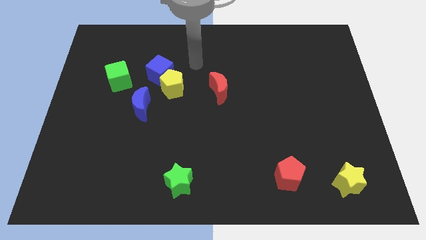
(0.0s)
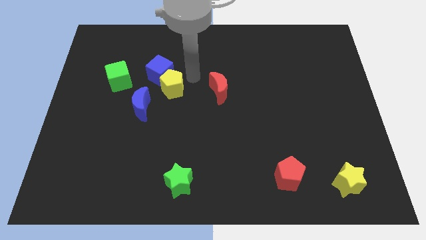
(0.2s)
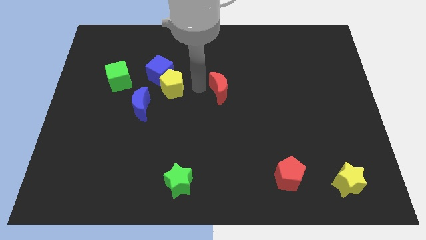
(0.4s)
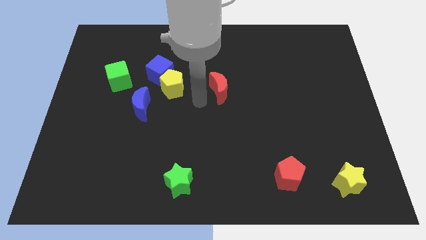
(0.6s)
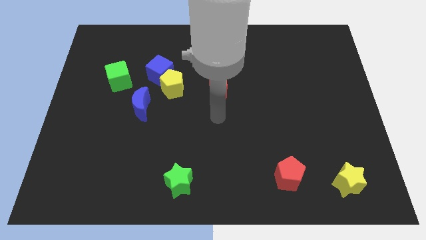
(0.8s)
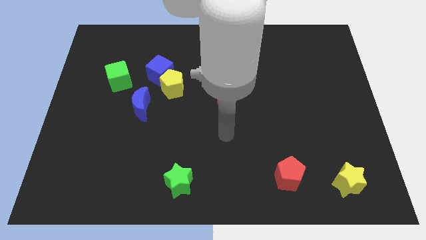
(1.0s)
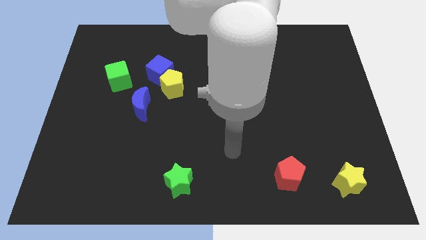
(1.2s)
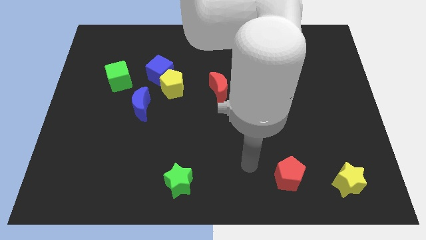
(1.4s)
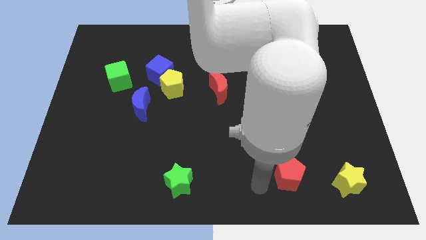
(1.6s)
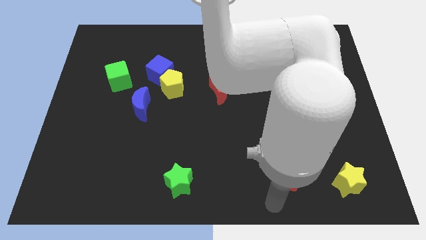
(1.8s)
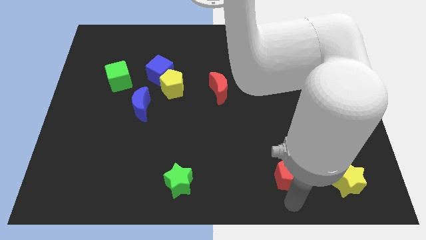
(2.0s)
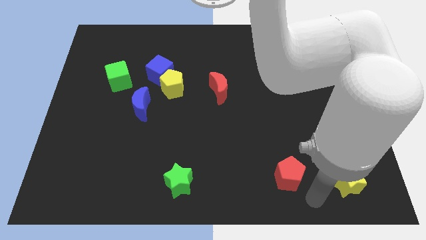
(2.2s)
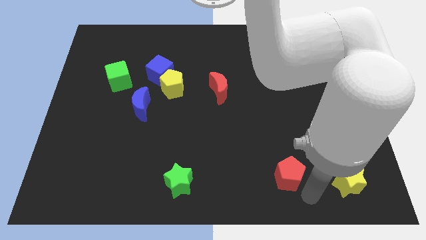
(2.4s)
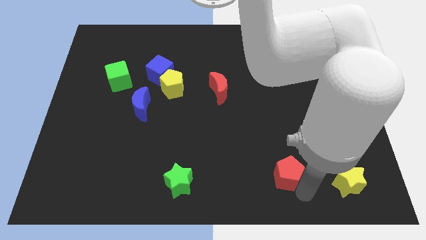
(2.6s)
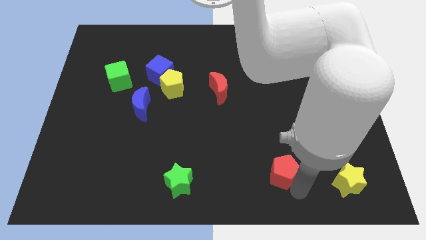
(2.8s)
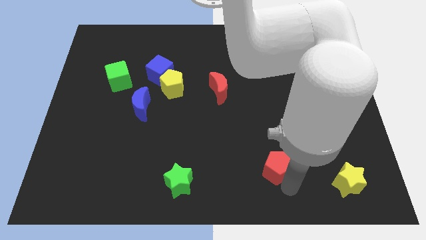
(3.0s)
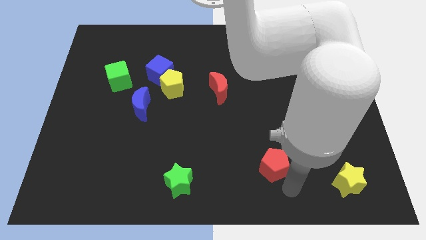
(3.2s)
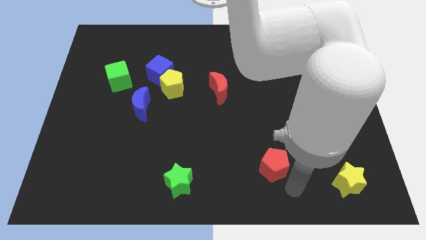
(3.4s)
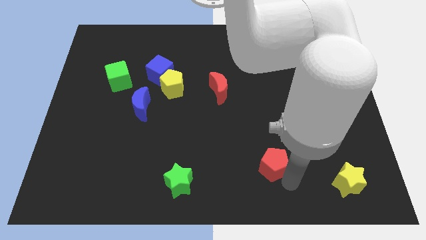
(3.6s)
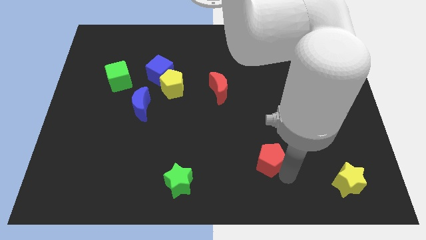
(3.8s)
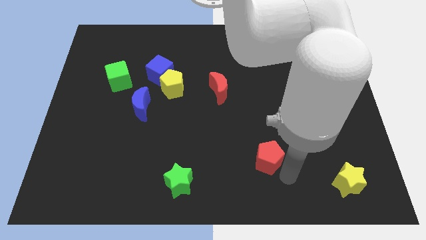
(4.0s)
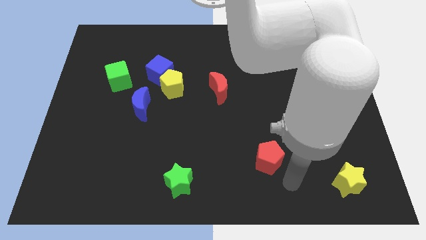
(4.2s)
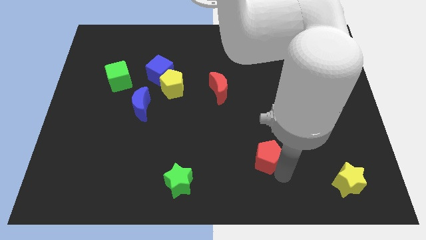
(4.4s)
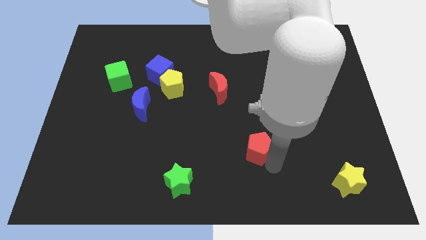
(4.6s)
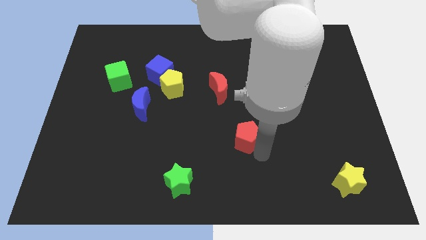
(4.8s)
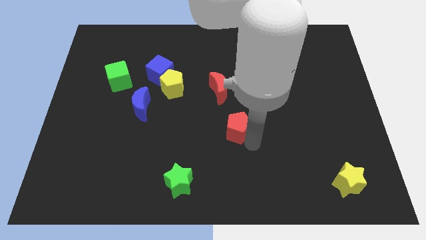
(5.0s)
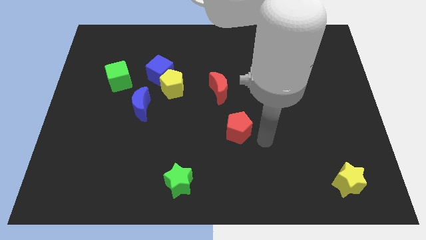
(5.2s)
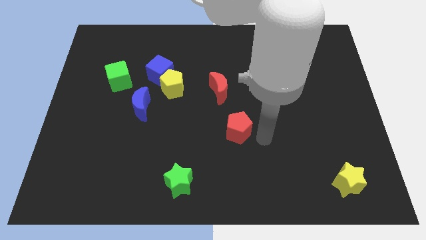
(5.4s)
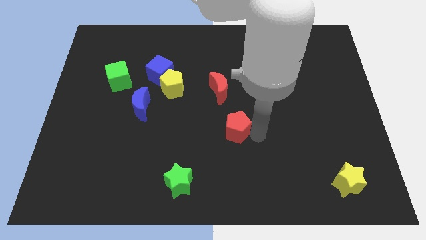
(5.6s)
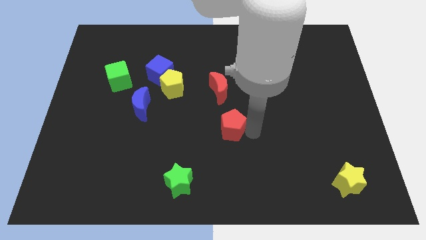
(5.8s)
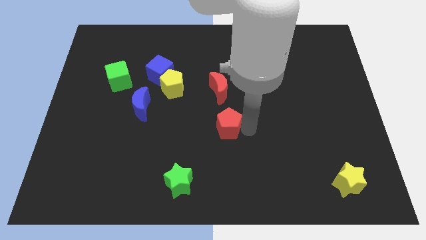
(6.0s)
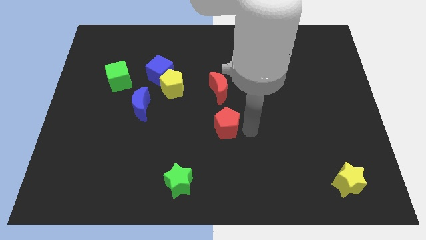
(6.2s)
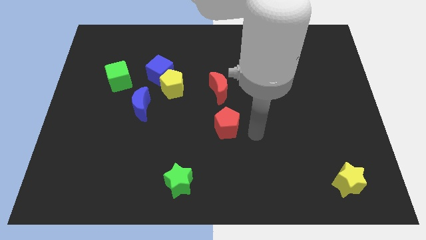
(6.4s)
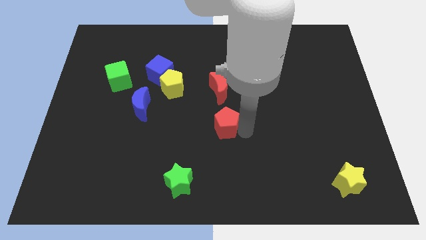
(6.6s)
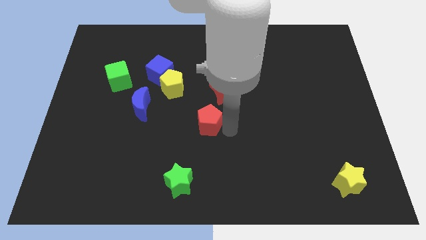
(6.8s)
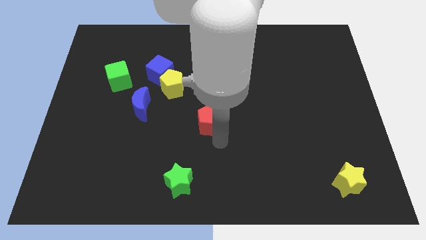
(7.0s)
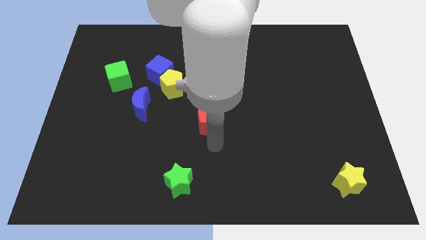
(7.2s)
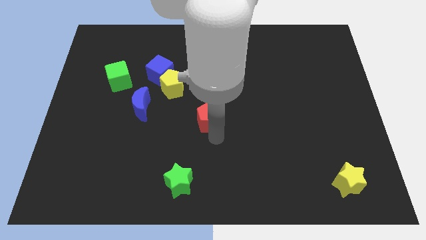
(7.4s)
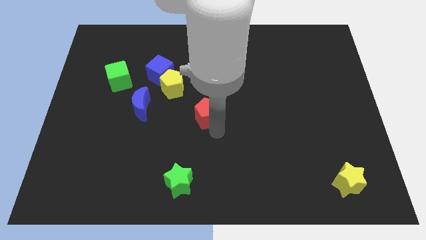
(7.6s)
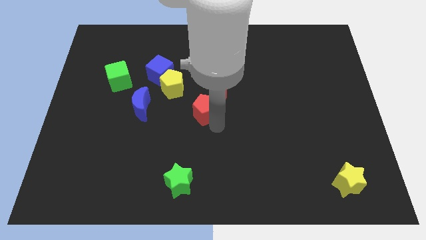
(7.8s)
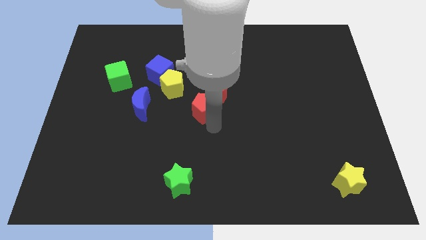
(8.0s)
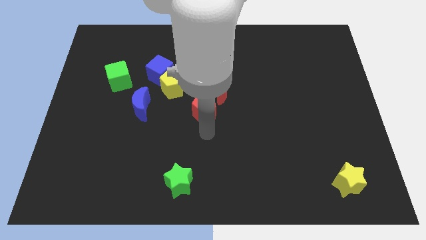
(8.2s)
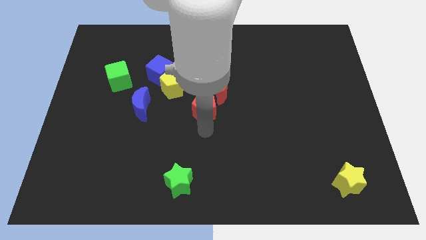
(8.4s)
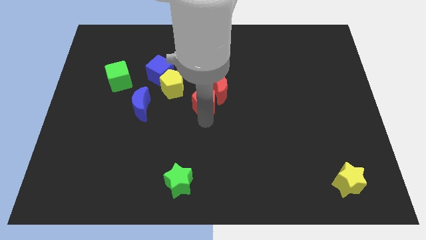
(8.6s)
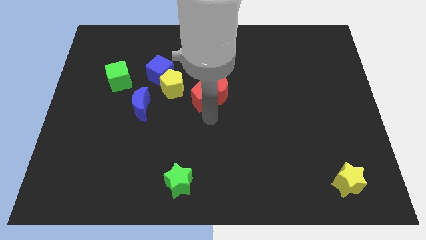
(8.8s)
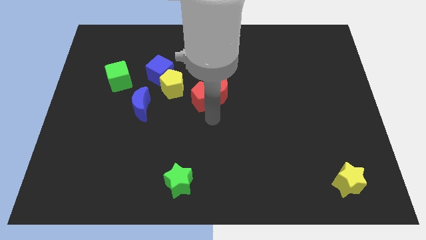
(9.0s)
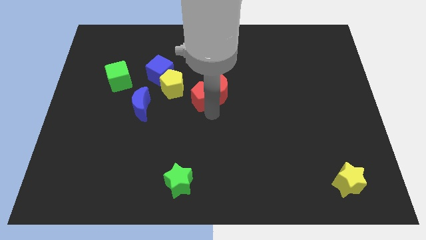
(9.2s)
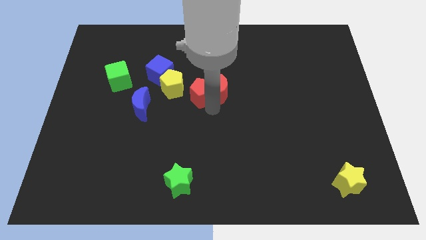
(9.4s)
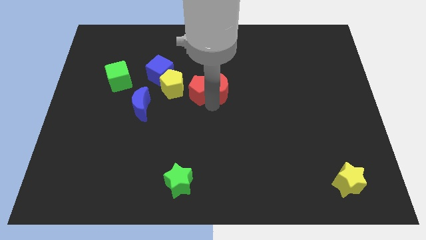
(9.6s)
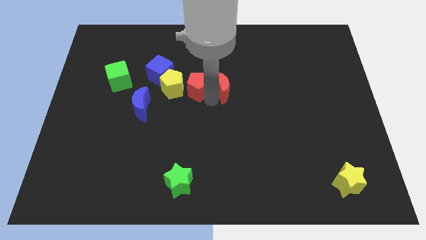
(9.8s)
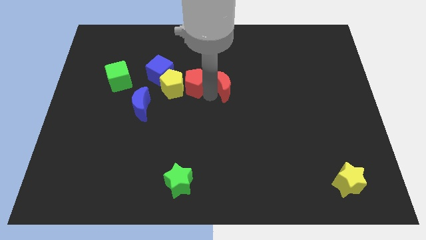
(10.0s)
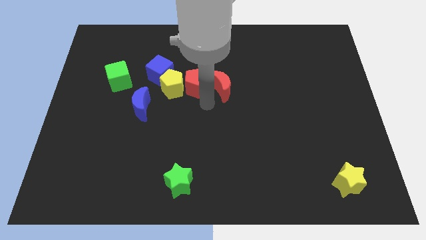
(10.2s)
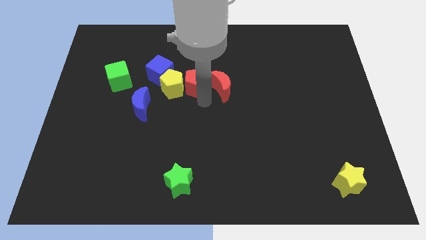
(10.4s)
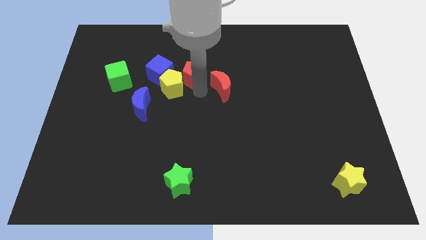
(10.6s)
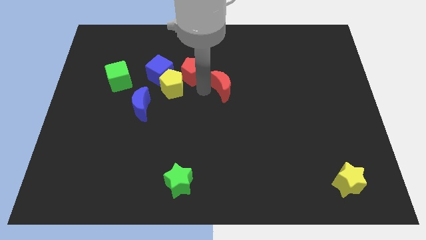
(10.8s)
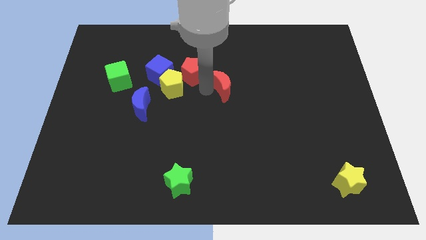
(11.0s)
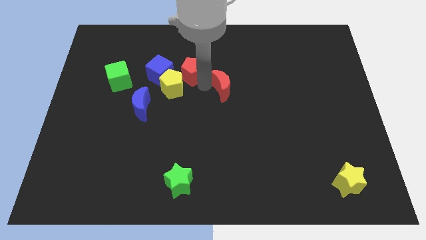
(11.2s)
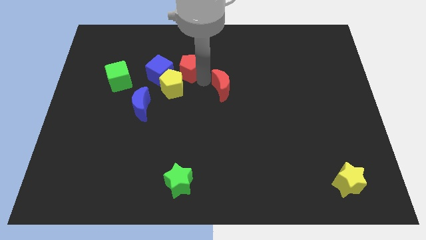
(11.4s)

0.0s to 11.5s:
slide the red pentagon diagonally up and to the right of the blue cube

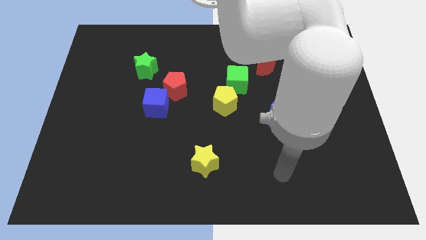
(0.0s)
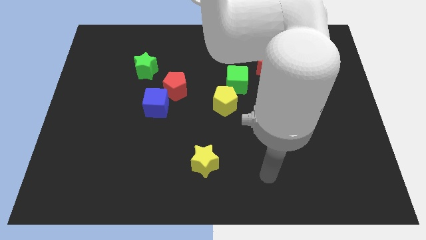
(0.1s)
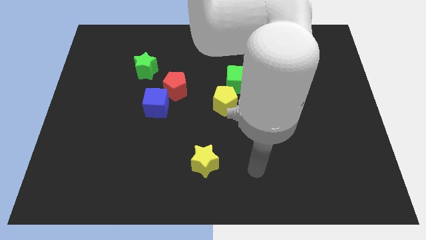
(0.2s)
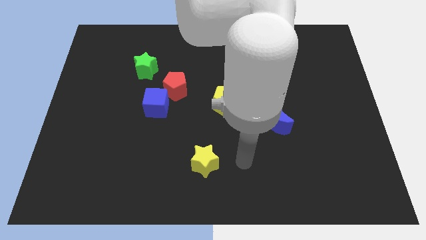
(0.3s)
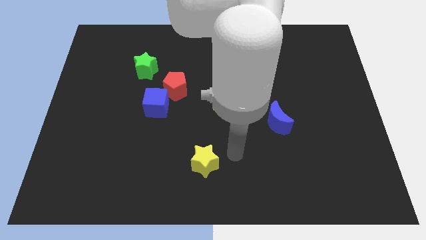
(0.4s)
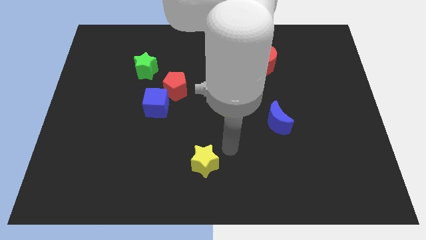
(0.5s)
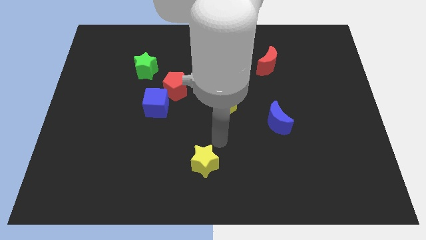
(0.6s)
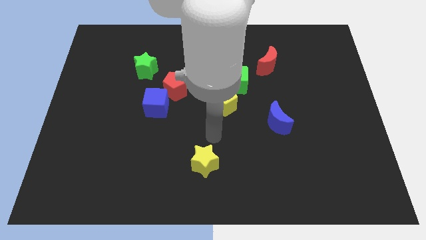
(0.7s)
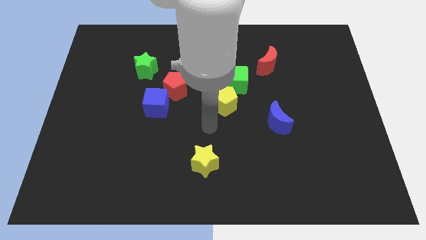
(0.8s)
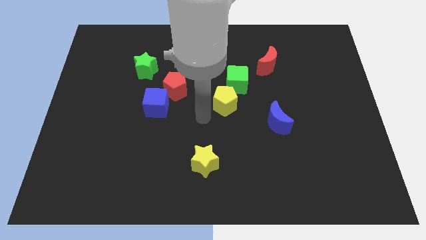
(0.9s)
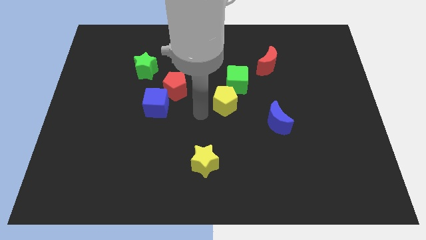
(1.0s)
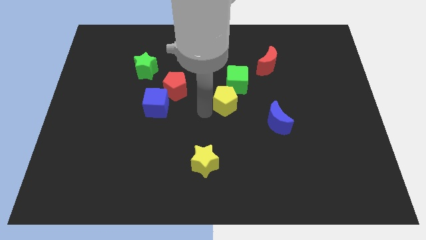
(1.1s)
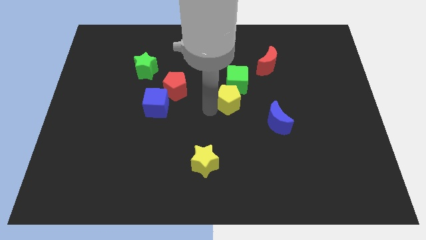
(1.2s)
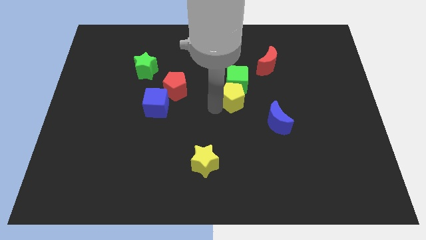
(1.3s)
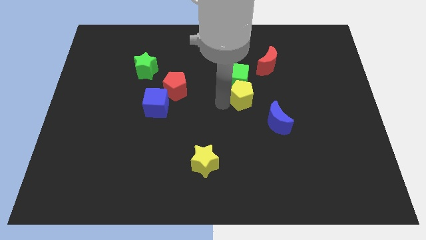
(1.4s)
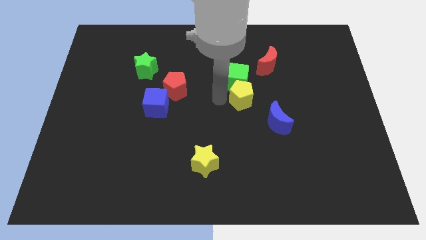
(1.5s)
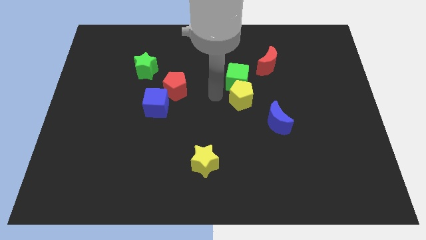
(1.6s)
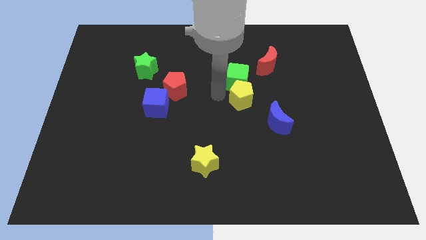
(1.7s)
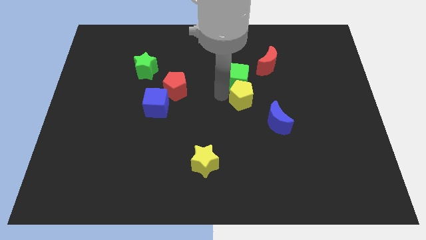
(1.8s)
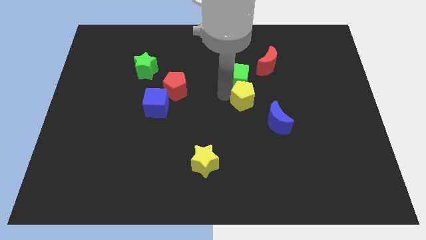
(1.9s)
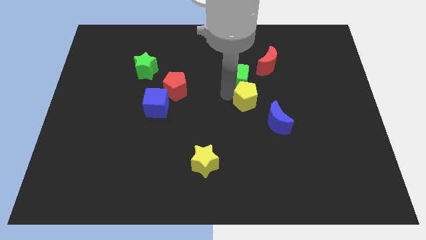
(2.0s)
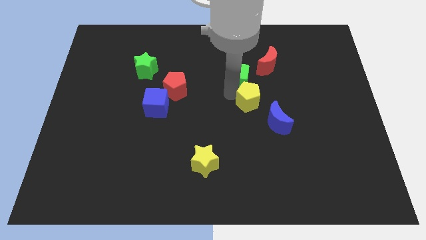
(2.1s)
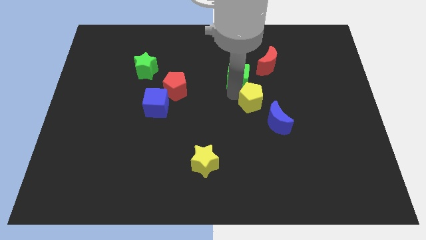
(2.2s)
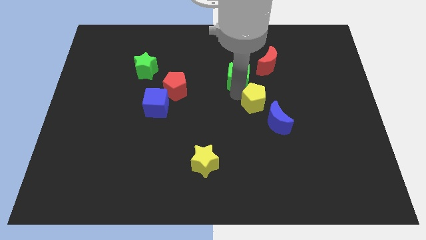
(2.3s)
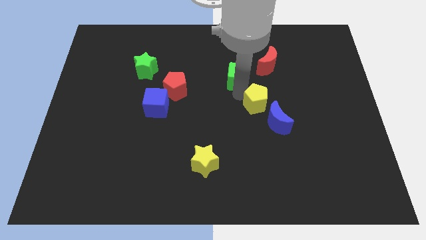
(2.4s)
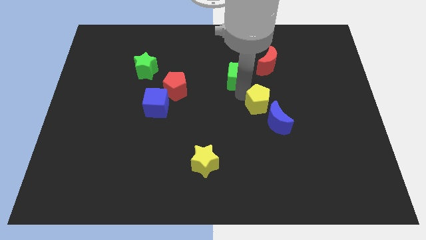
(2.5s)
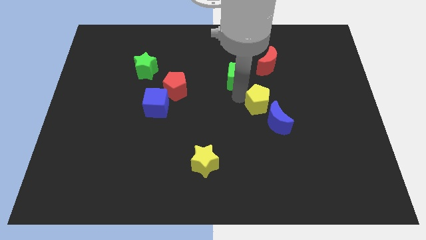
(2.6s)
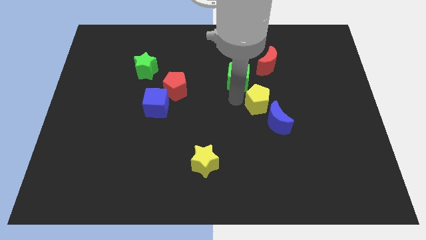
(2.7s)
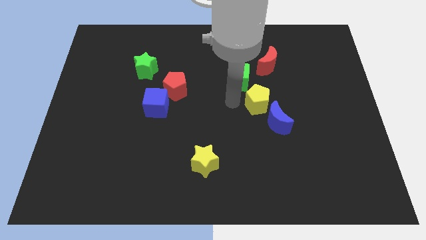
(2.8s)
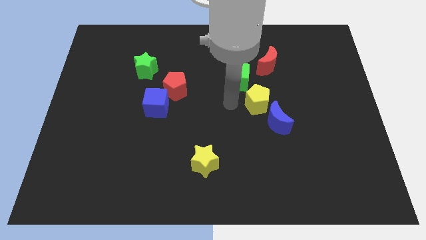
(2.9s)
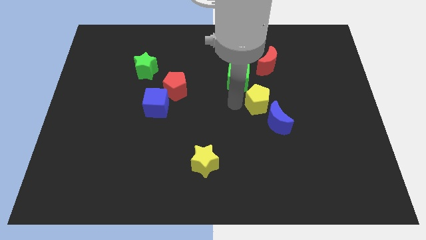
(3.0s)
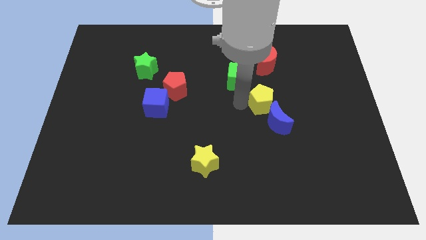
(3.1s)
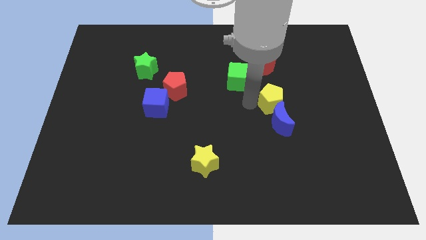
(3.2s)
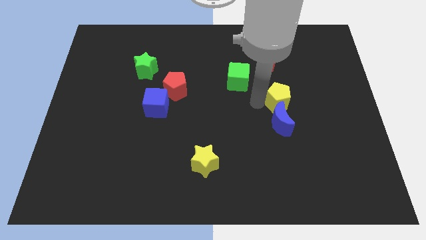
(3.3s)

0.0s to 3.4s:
slide the yellow pentagon diagonally up and to the right of the blue moon
